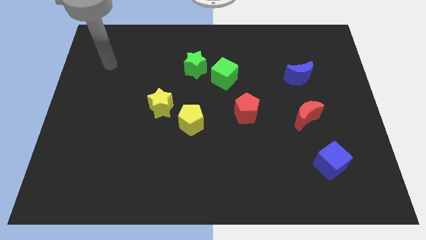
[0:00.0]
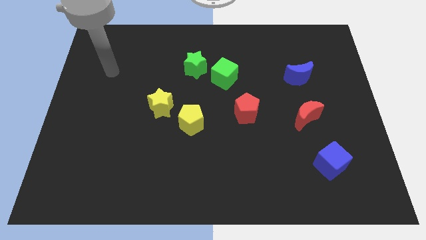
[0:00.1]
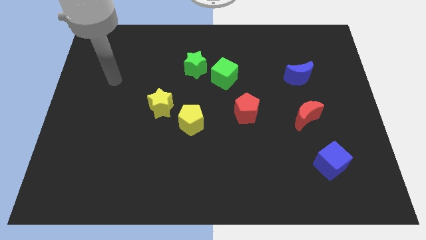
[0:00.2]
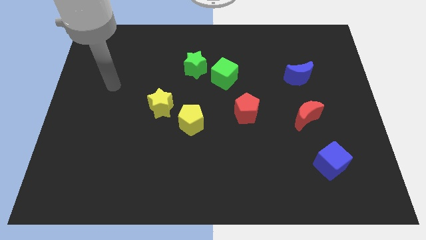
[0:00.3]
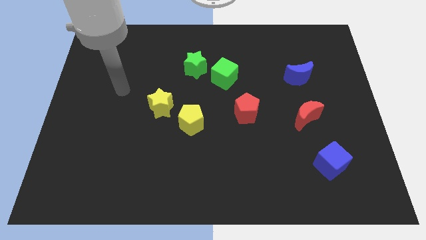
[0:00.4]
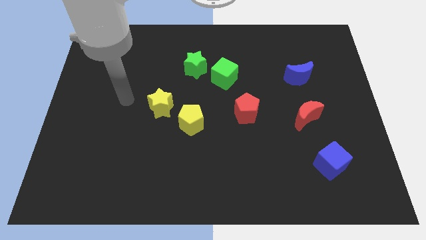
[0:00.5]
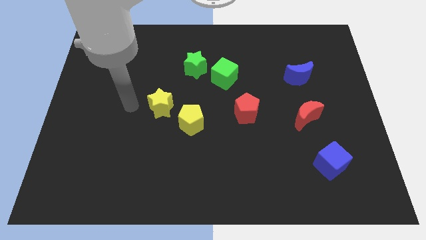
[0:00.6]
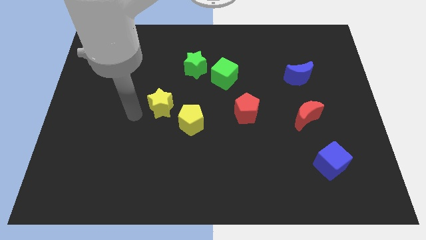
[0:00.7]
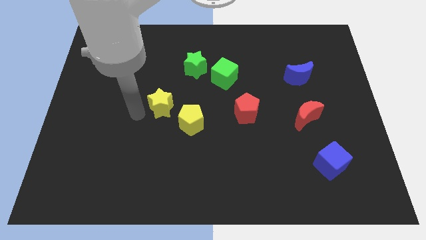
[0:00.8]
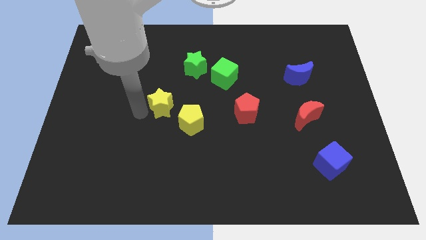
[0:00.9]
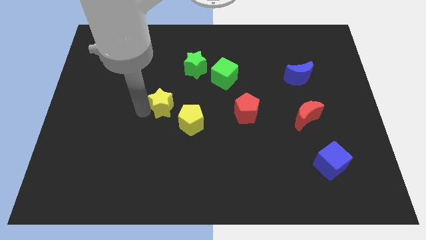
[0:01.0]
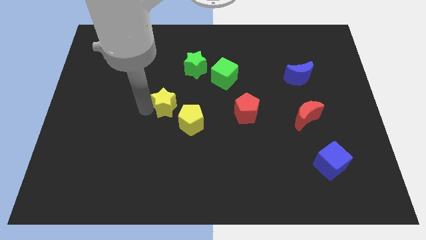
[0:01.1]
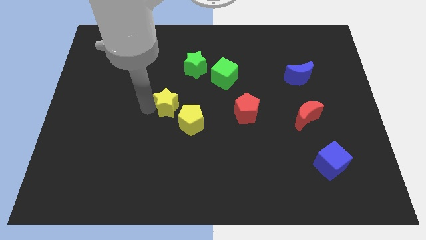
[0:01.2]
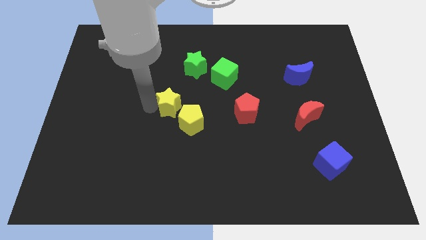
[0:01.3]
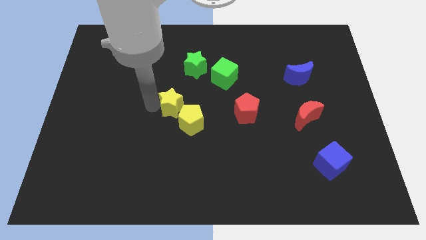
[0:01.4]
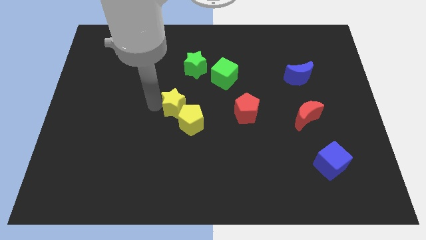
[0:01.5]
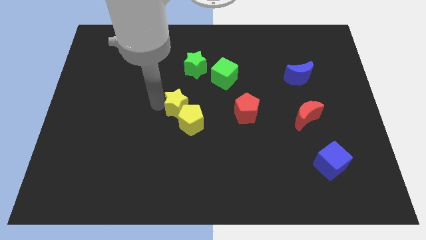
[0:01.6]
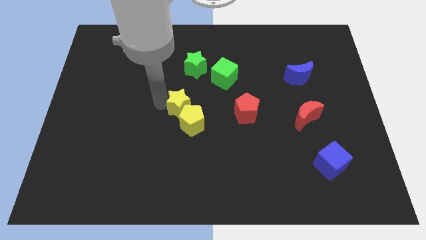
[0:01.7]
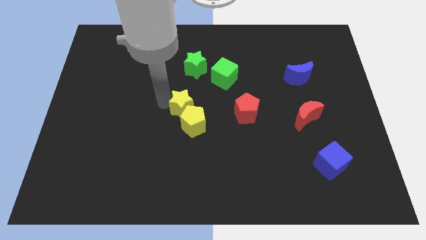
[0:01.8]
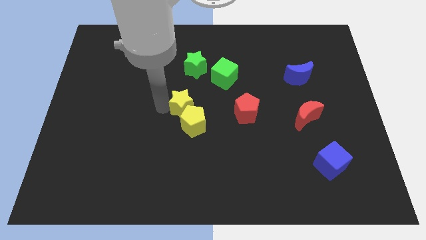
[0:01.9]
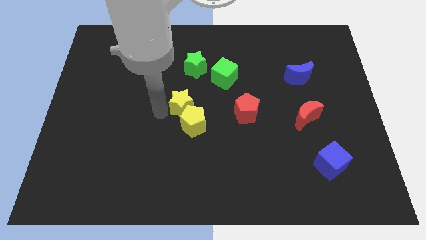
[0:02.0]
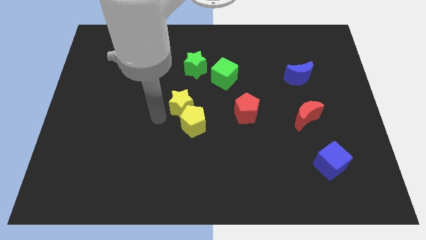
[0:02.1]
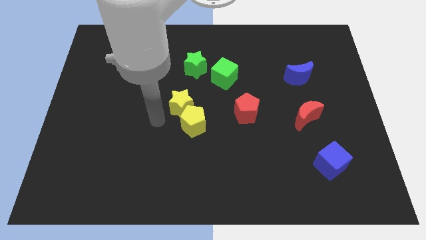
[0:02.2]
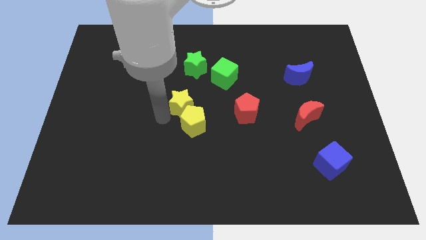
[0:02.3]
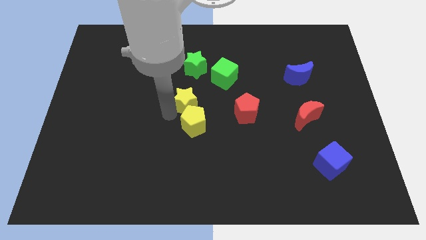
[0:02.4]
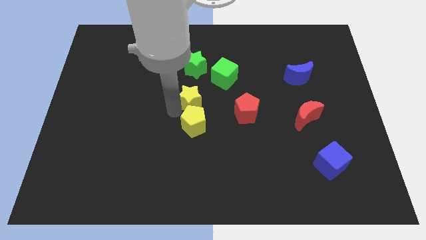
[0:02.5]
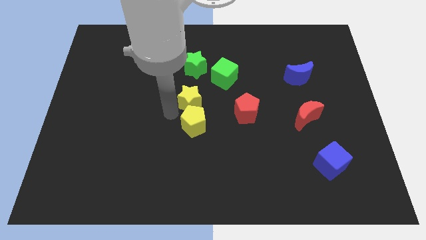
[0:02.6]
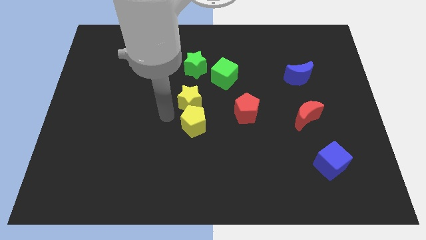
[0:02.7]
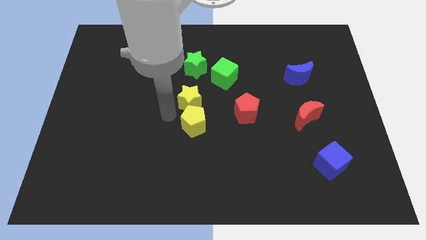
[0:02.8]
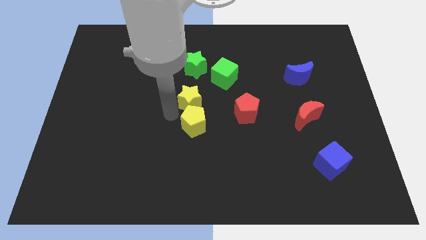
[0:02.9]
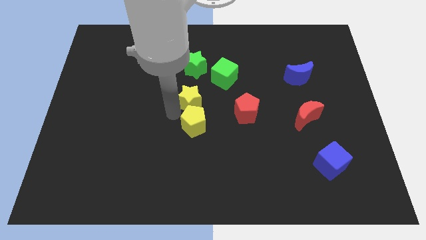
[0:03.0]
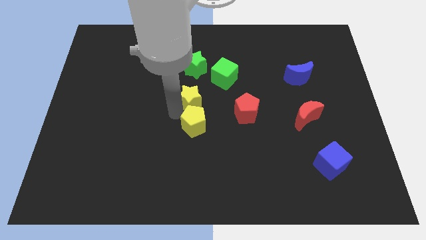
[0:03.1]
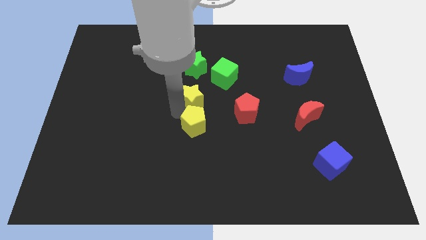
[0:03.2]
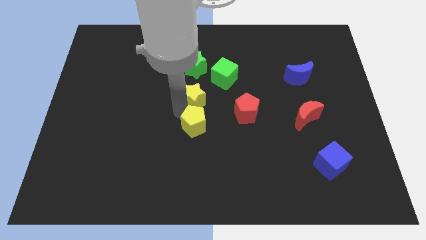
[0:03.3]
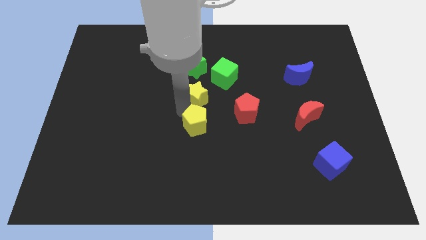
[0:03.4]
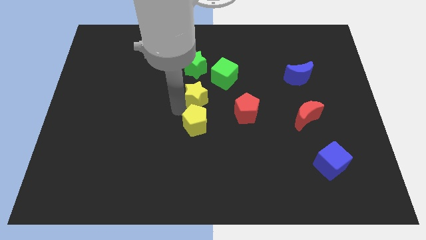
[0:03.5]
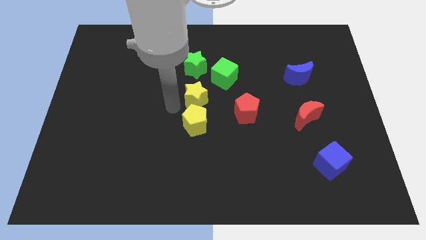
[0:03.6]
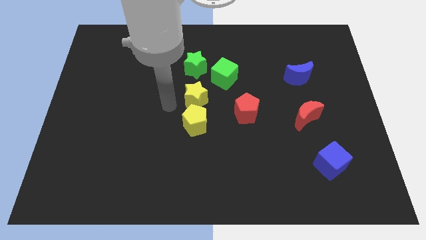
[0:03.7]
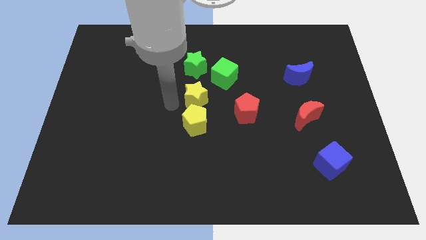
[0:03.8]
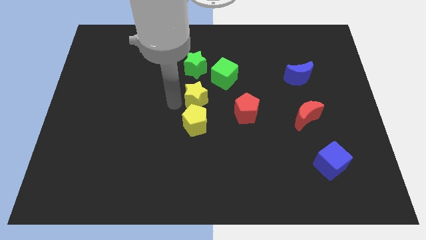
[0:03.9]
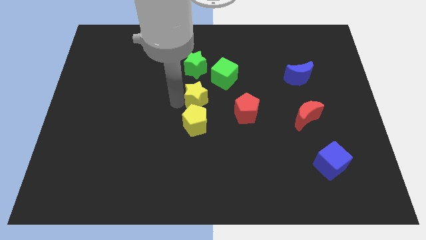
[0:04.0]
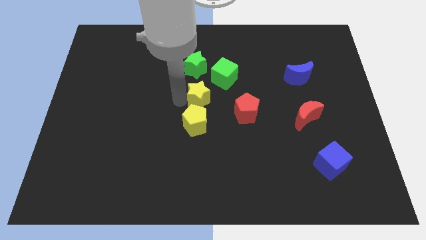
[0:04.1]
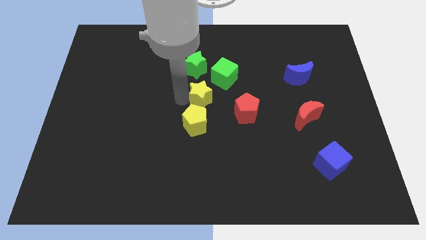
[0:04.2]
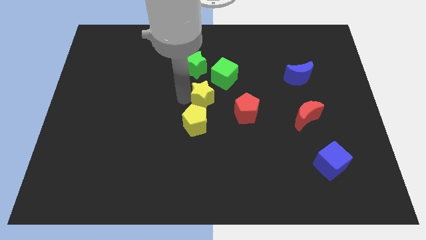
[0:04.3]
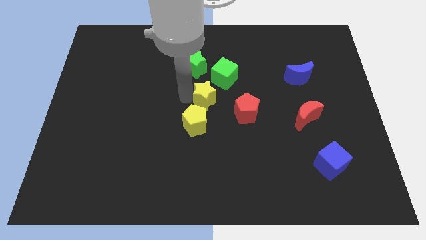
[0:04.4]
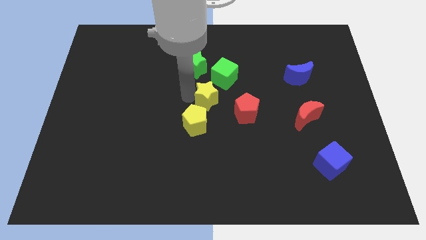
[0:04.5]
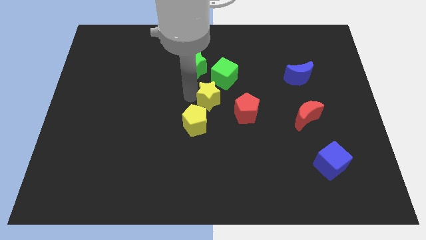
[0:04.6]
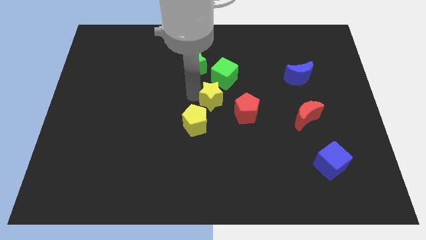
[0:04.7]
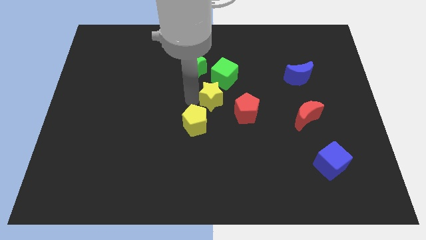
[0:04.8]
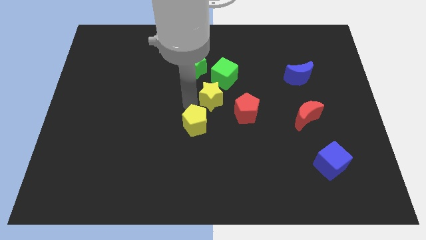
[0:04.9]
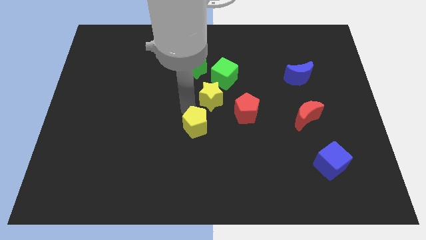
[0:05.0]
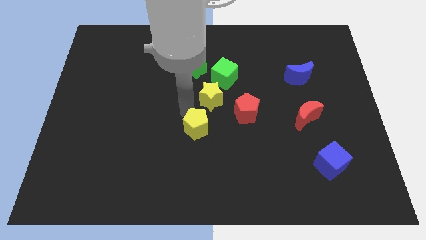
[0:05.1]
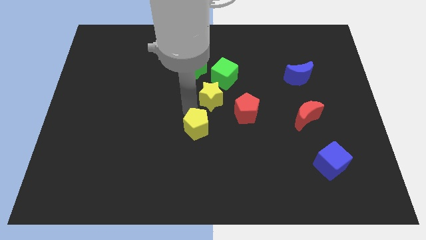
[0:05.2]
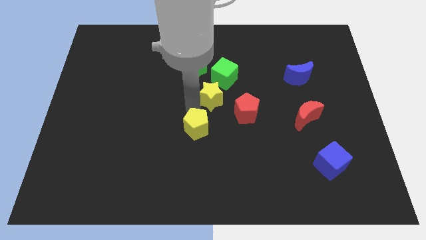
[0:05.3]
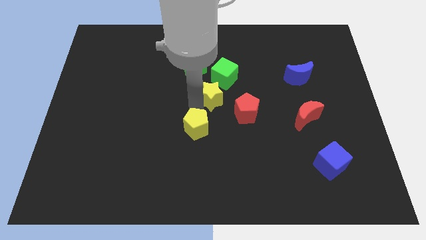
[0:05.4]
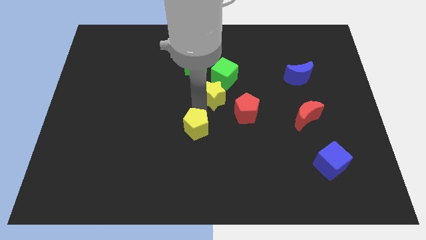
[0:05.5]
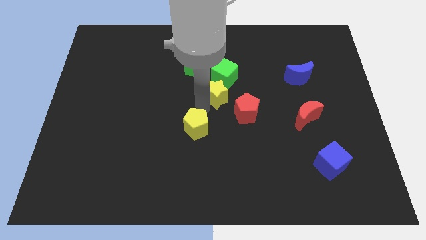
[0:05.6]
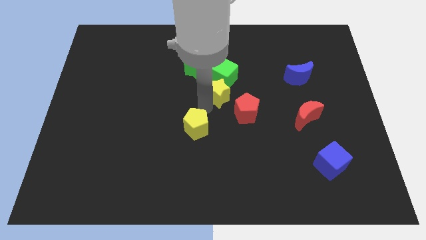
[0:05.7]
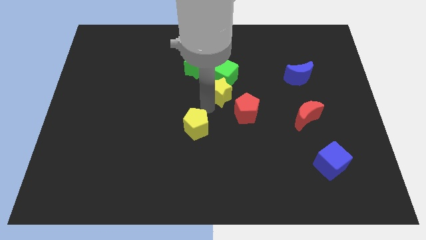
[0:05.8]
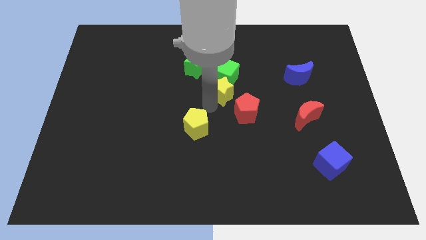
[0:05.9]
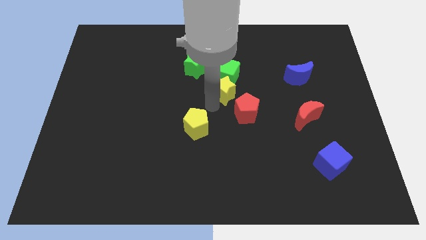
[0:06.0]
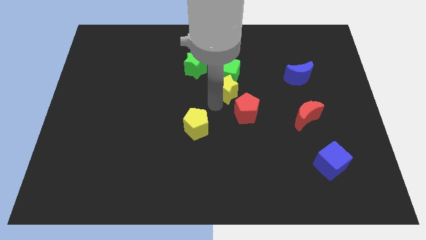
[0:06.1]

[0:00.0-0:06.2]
put the yellow star to the top of the red pentagon

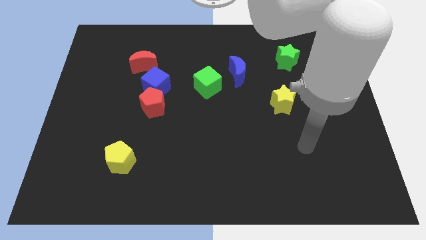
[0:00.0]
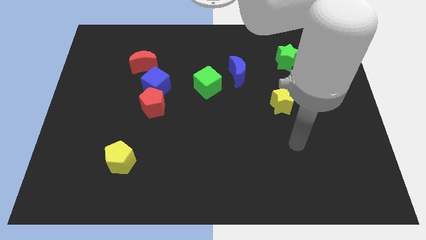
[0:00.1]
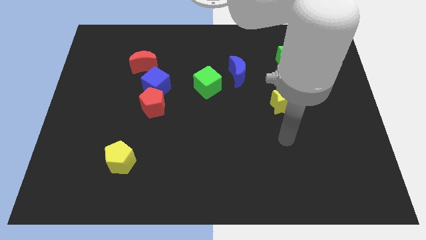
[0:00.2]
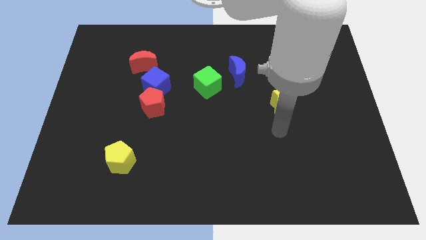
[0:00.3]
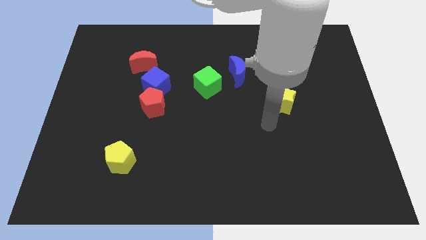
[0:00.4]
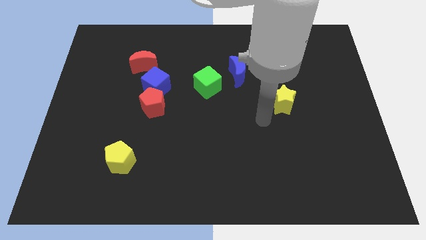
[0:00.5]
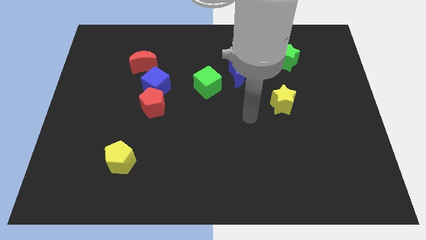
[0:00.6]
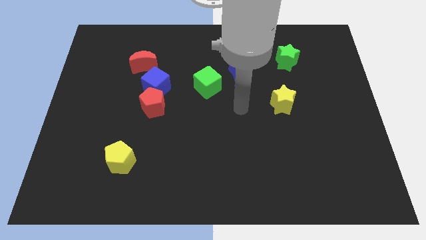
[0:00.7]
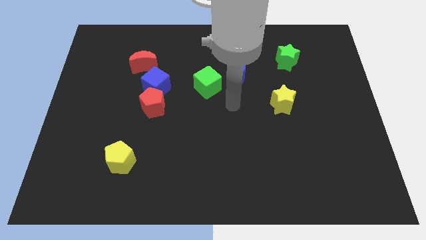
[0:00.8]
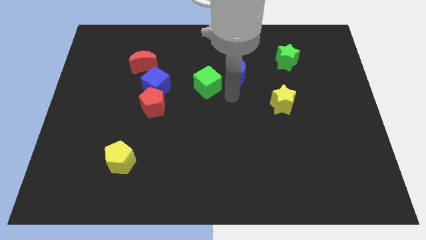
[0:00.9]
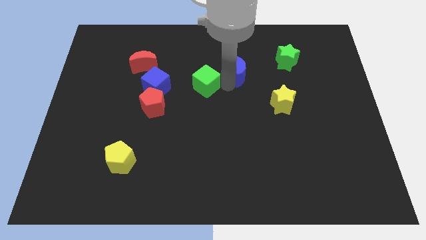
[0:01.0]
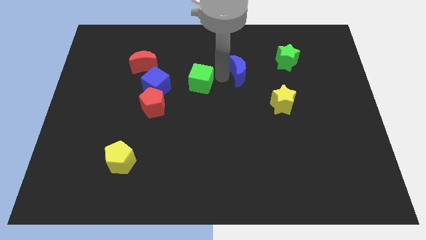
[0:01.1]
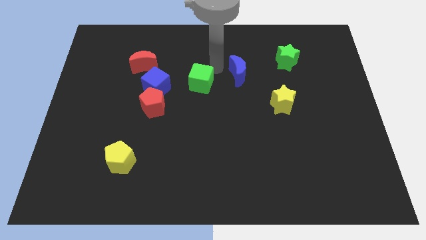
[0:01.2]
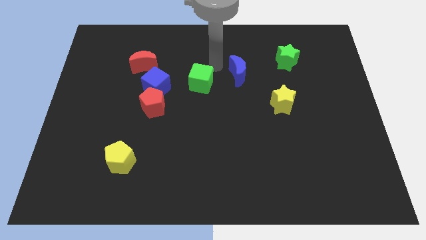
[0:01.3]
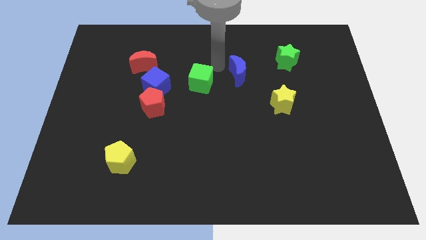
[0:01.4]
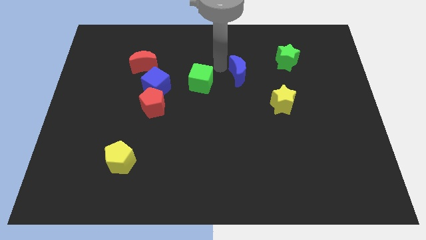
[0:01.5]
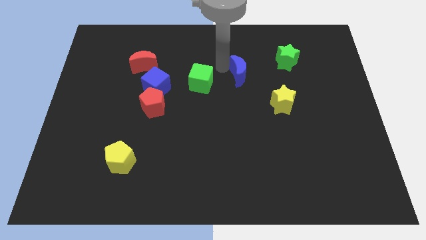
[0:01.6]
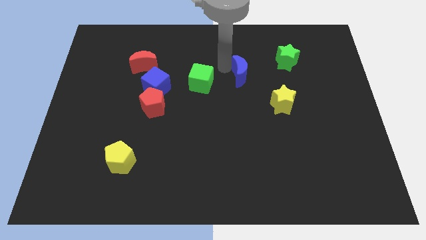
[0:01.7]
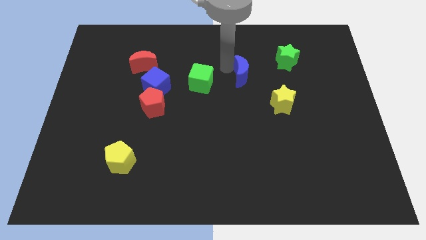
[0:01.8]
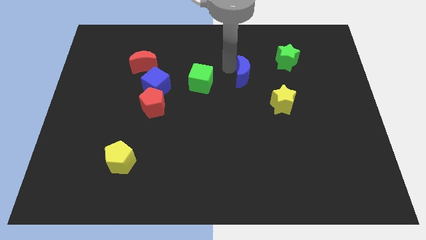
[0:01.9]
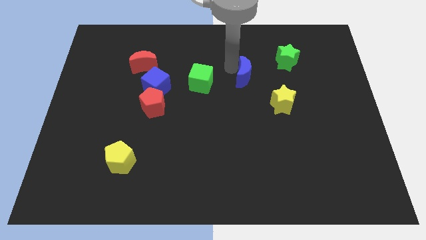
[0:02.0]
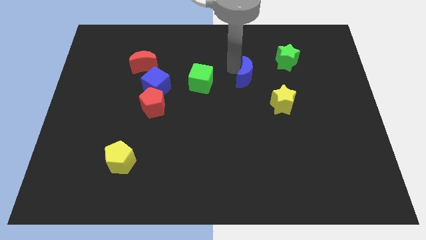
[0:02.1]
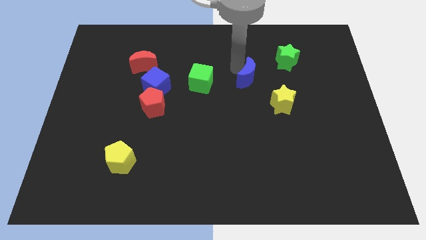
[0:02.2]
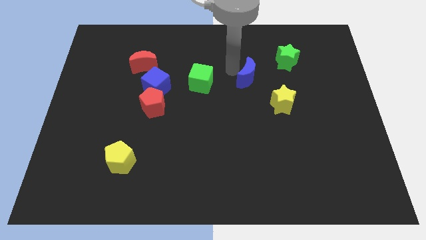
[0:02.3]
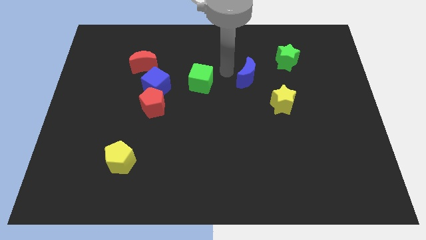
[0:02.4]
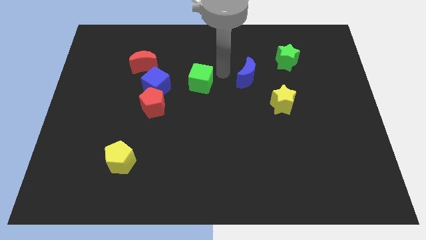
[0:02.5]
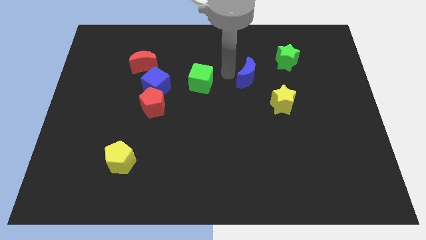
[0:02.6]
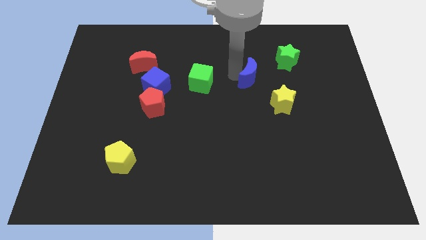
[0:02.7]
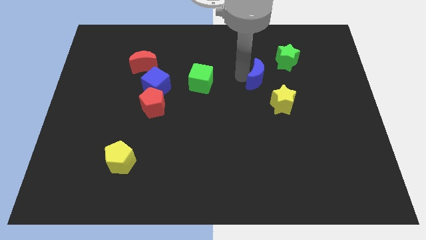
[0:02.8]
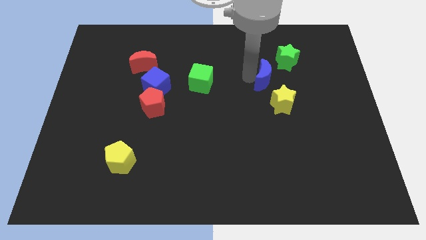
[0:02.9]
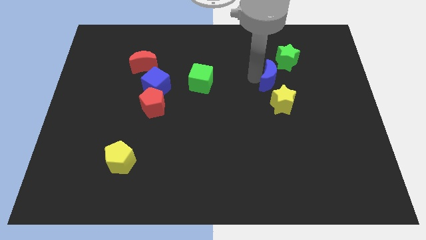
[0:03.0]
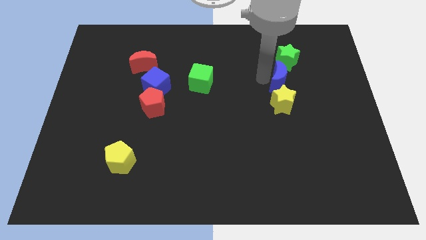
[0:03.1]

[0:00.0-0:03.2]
move the blue moon to the top right of the yellow star
